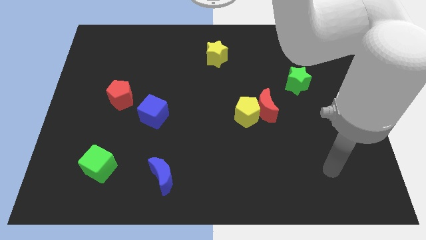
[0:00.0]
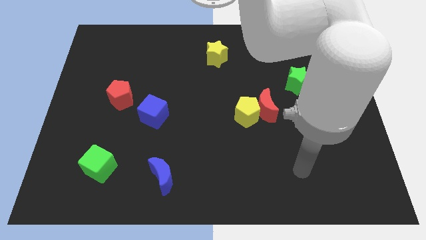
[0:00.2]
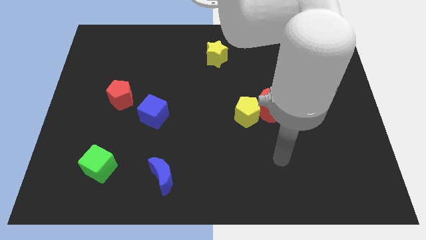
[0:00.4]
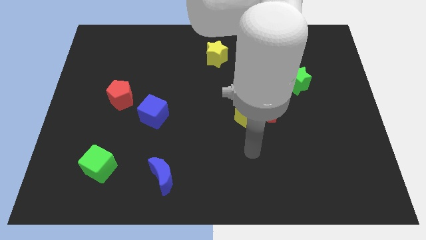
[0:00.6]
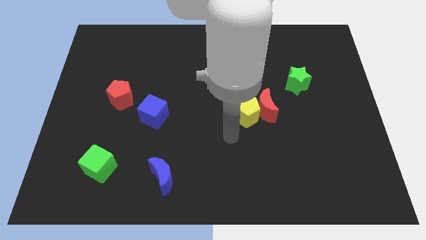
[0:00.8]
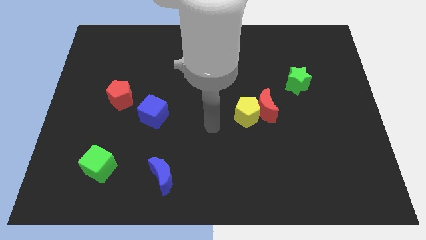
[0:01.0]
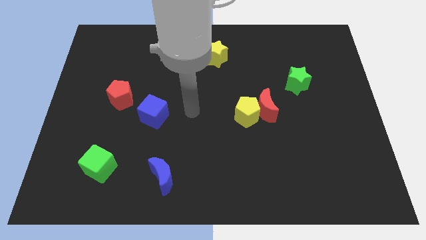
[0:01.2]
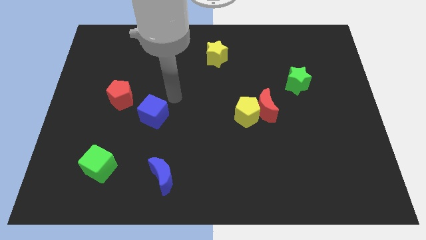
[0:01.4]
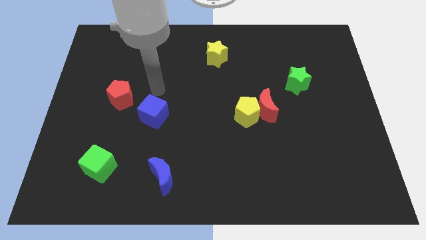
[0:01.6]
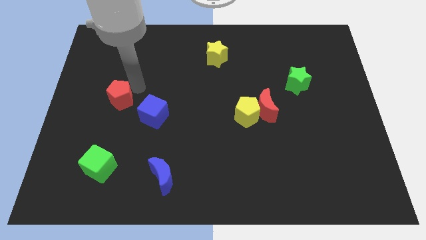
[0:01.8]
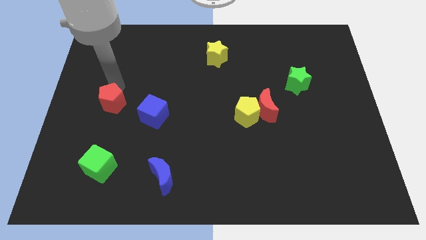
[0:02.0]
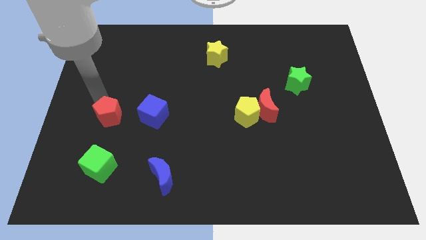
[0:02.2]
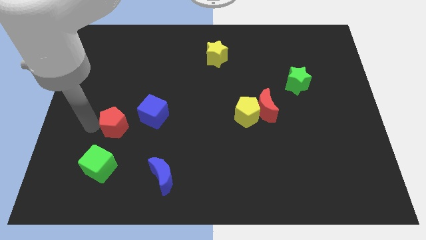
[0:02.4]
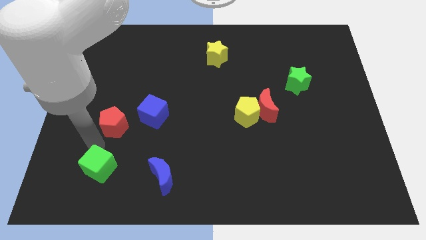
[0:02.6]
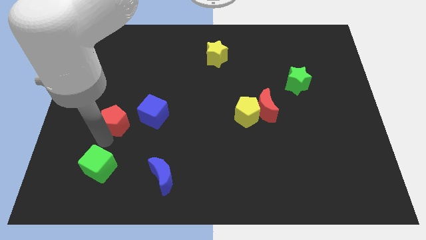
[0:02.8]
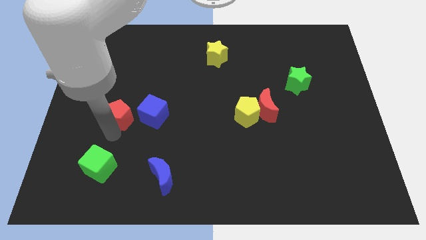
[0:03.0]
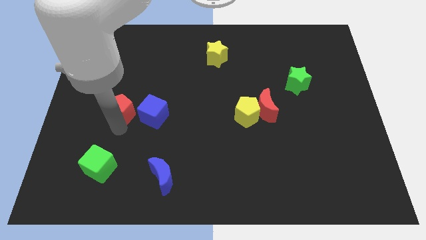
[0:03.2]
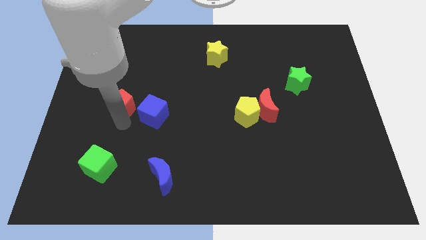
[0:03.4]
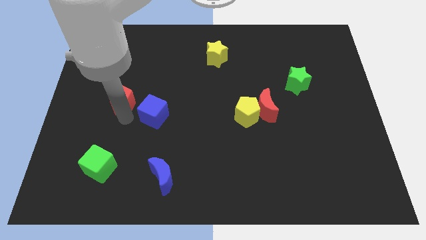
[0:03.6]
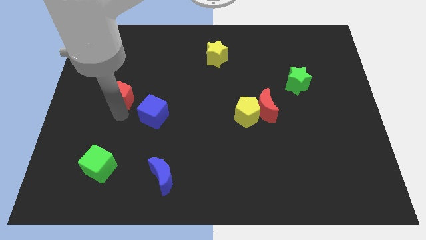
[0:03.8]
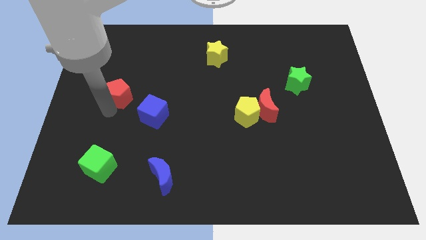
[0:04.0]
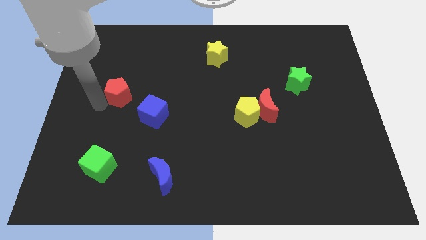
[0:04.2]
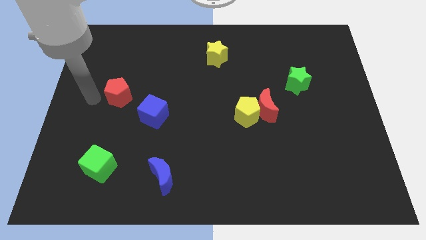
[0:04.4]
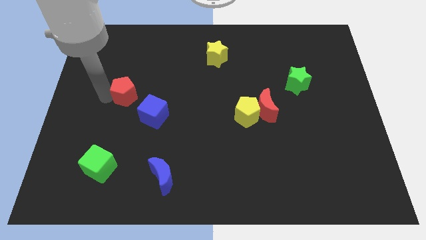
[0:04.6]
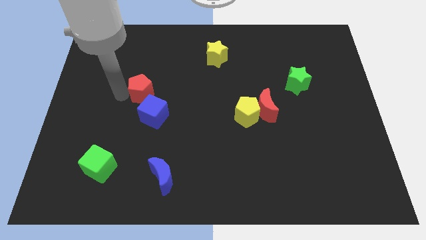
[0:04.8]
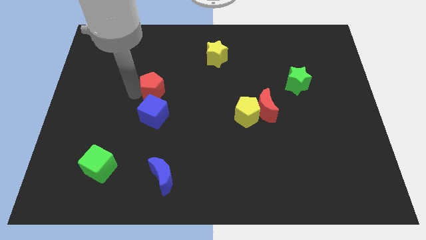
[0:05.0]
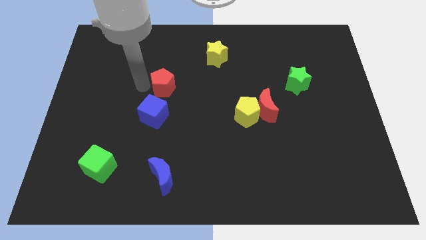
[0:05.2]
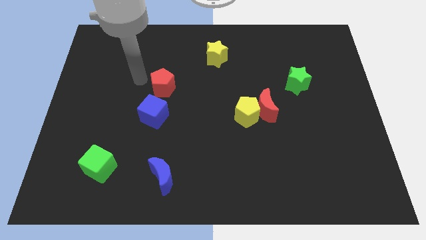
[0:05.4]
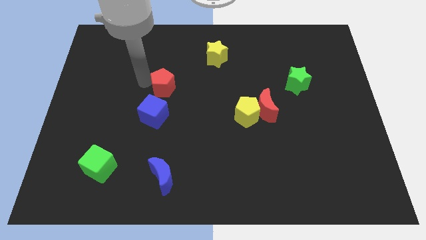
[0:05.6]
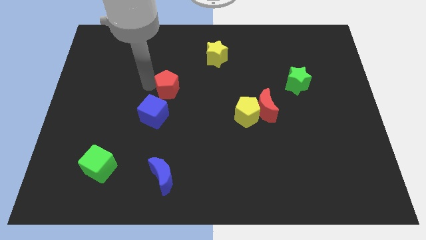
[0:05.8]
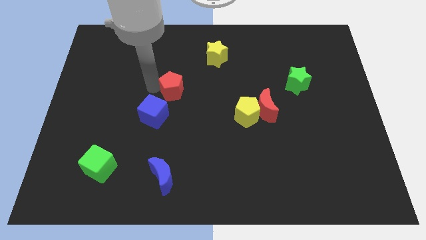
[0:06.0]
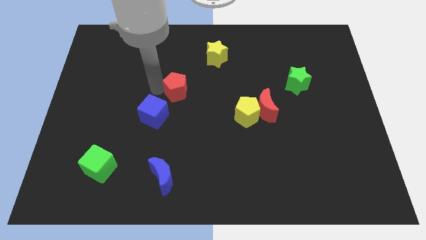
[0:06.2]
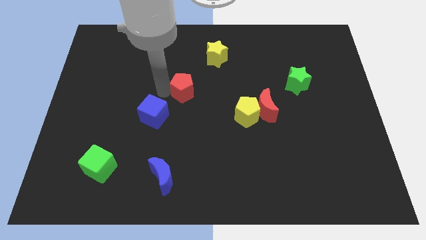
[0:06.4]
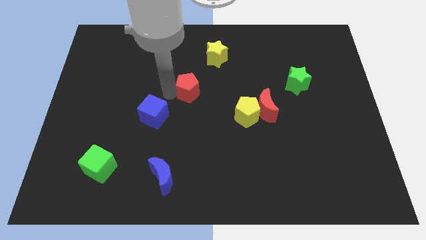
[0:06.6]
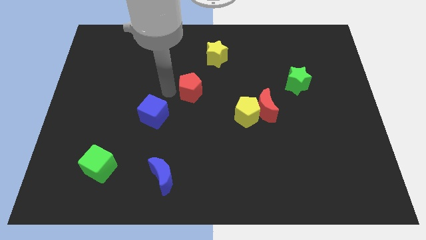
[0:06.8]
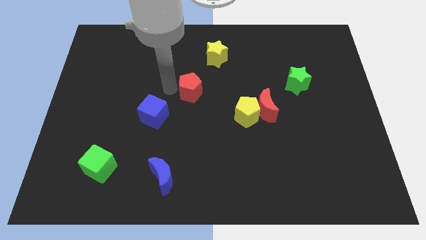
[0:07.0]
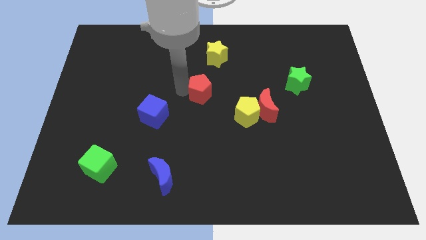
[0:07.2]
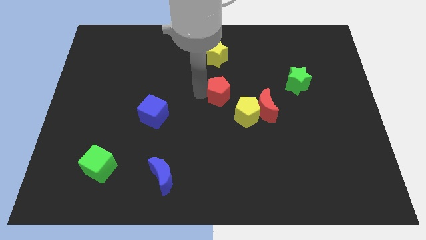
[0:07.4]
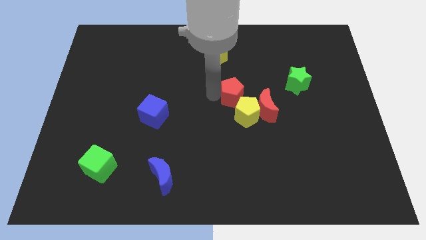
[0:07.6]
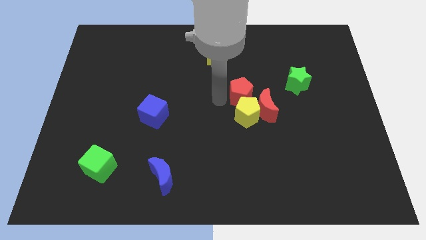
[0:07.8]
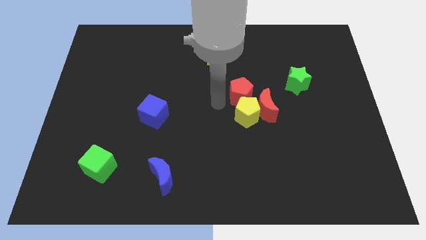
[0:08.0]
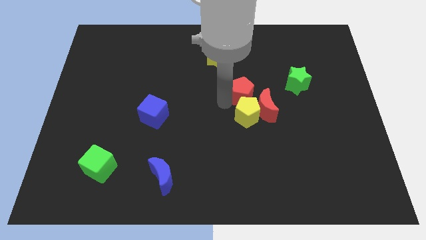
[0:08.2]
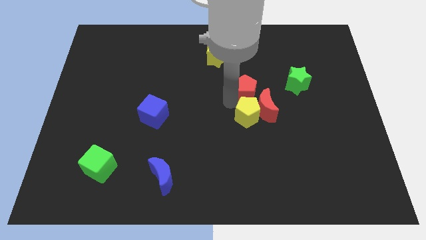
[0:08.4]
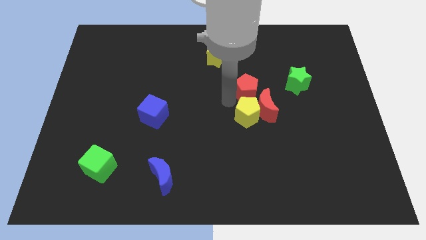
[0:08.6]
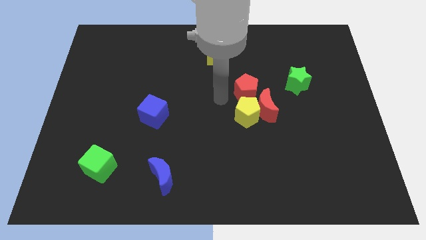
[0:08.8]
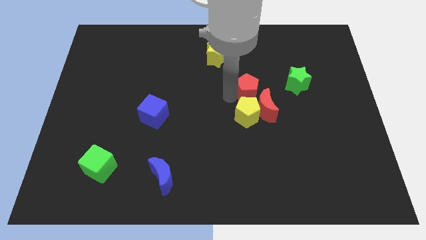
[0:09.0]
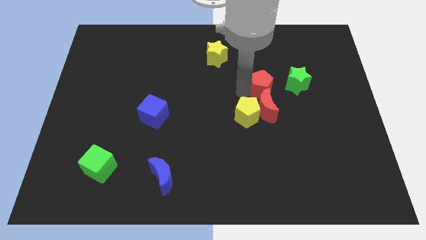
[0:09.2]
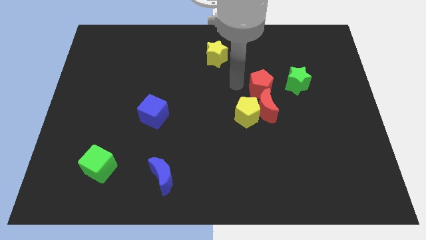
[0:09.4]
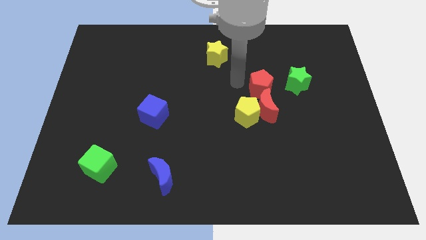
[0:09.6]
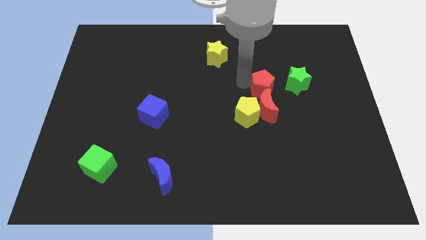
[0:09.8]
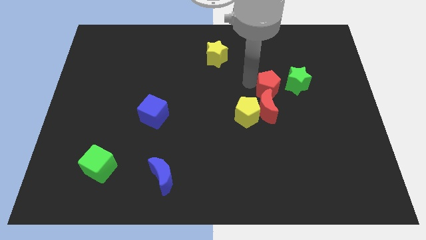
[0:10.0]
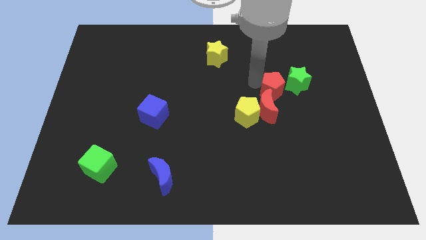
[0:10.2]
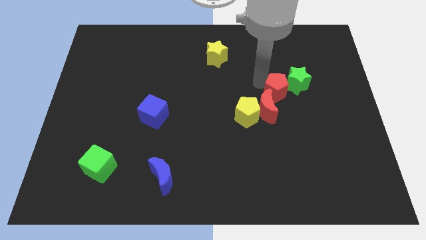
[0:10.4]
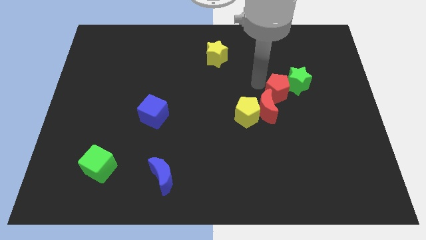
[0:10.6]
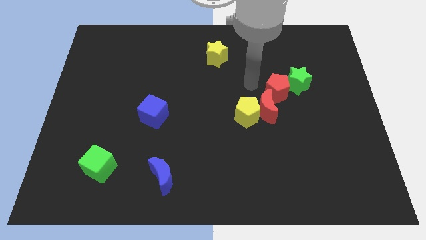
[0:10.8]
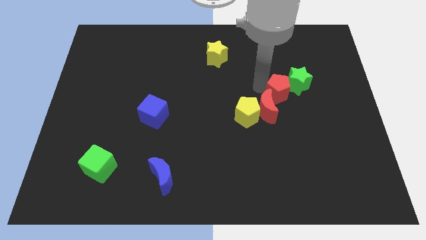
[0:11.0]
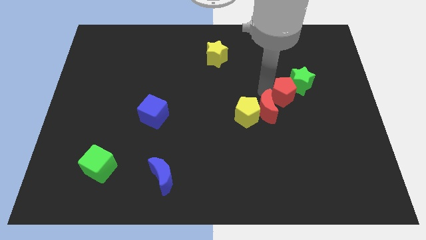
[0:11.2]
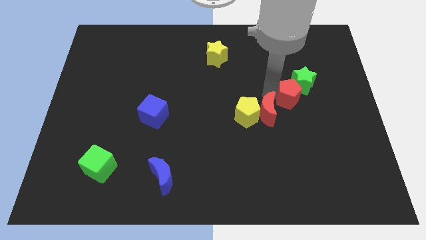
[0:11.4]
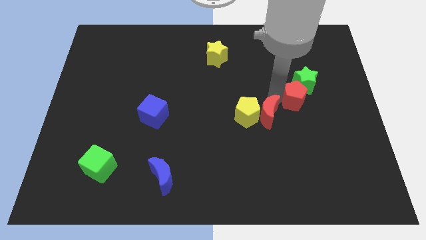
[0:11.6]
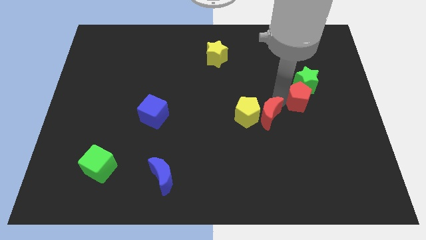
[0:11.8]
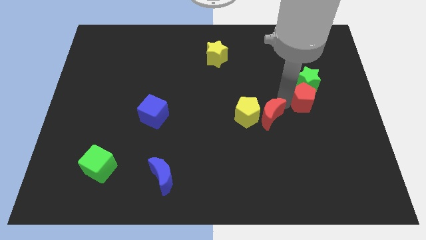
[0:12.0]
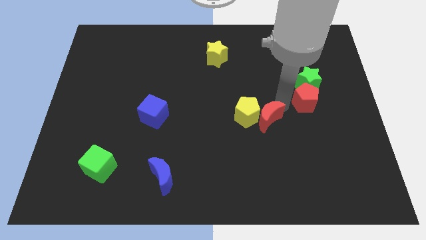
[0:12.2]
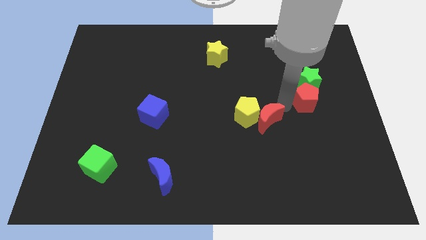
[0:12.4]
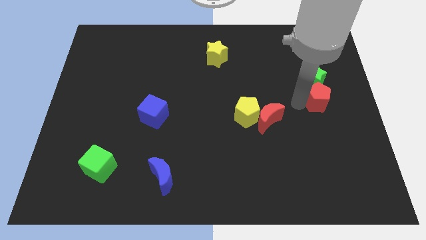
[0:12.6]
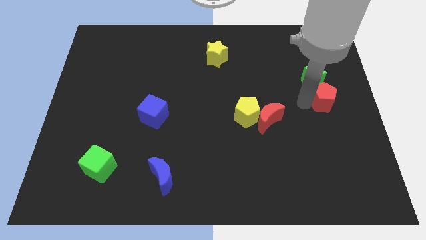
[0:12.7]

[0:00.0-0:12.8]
slide the red pentagon to the right side of the board
